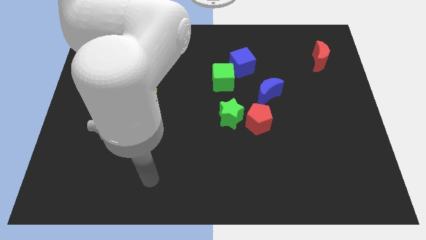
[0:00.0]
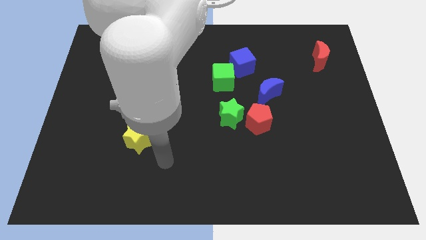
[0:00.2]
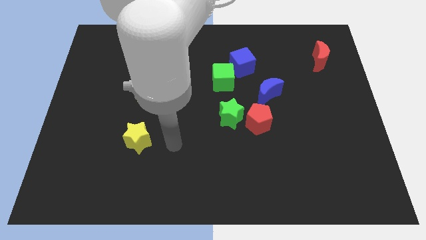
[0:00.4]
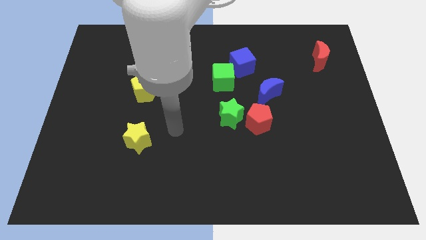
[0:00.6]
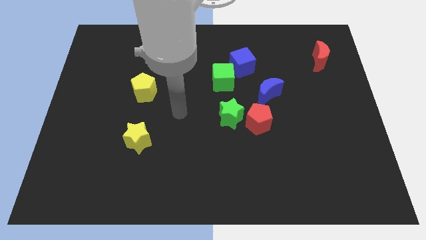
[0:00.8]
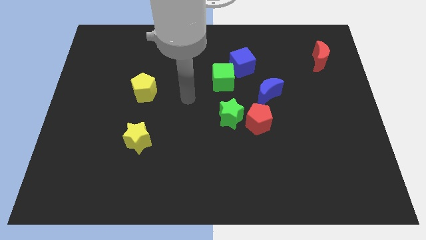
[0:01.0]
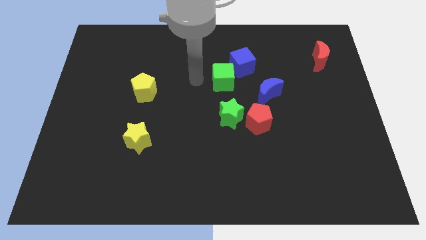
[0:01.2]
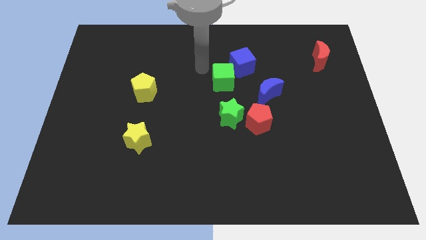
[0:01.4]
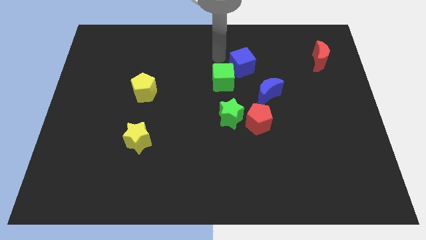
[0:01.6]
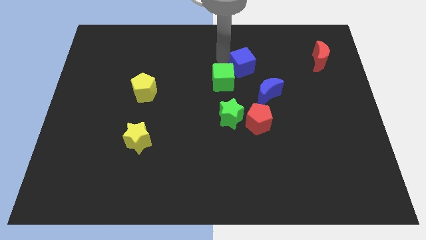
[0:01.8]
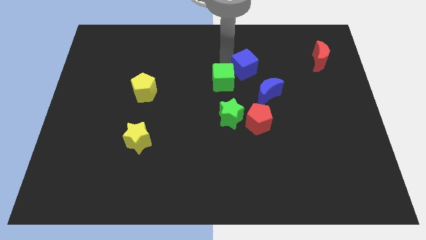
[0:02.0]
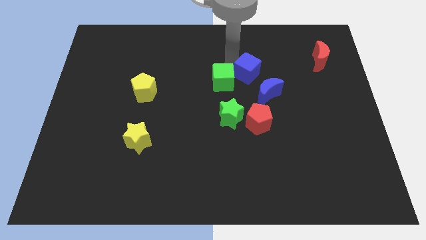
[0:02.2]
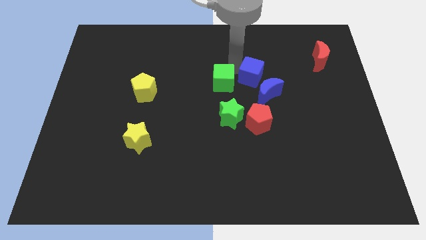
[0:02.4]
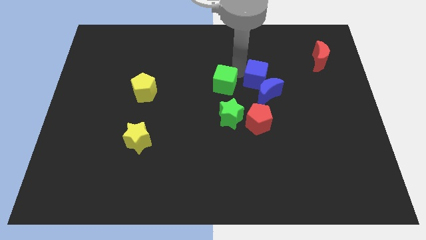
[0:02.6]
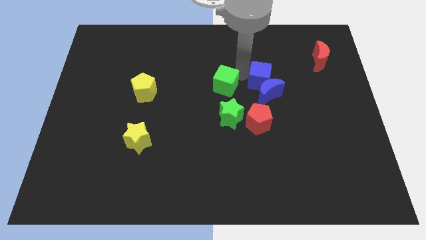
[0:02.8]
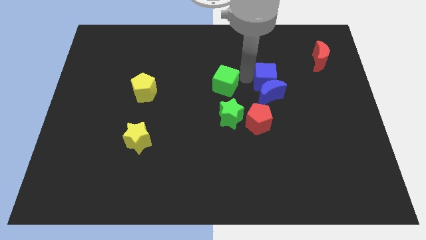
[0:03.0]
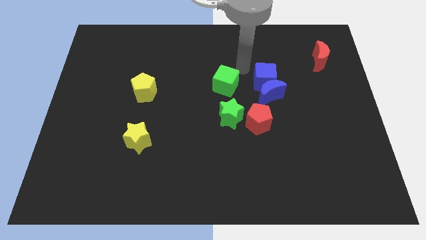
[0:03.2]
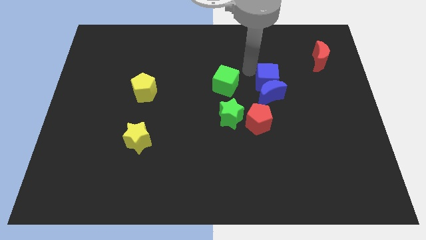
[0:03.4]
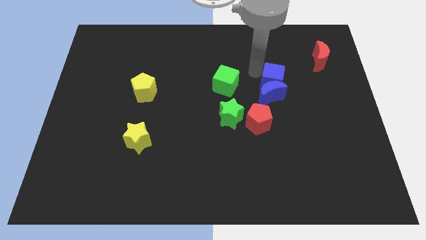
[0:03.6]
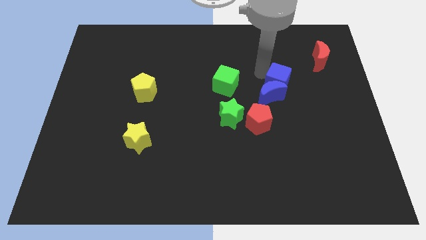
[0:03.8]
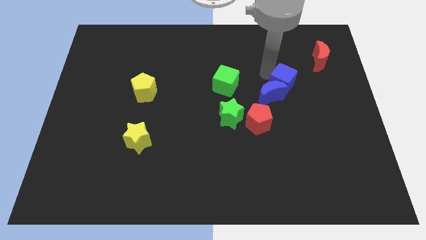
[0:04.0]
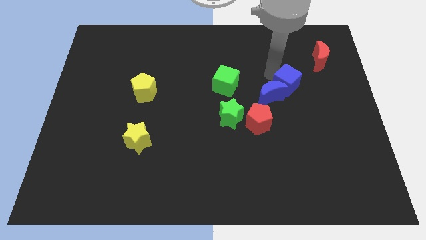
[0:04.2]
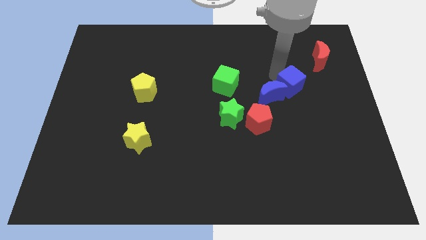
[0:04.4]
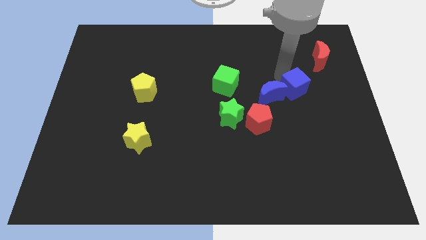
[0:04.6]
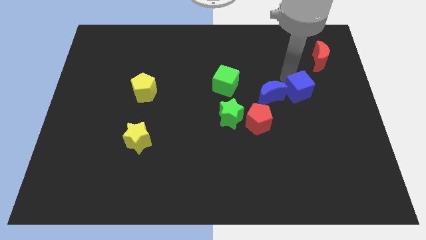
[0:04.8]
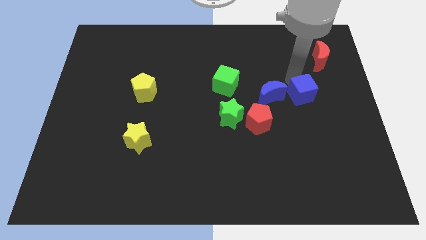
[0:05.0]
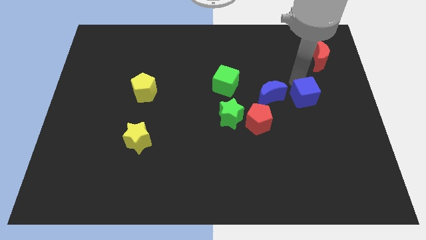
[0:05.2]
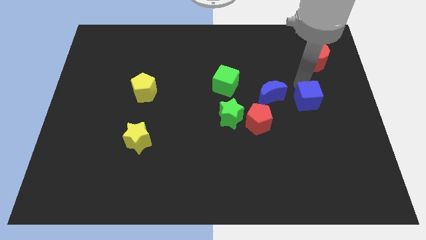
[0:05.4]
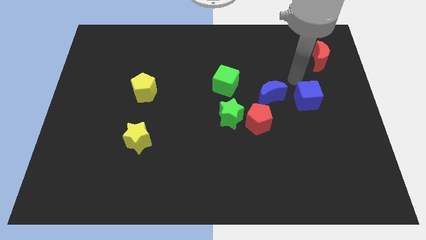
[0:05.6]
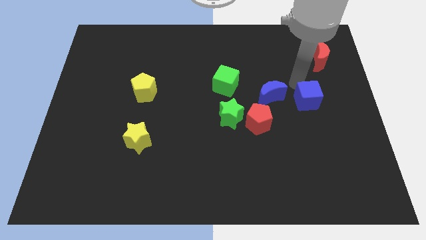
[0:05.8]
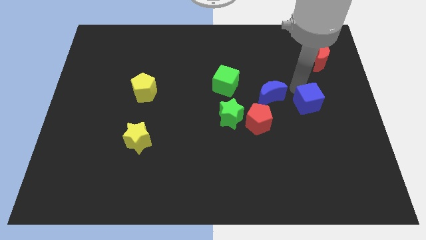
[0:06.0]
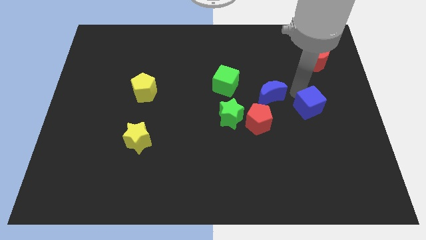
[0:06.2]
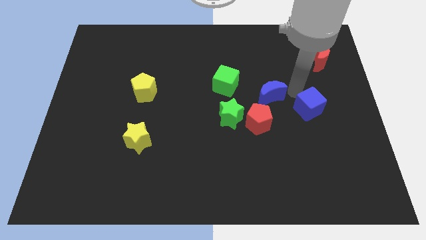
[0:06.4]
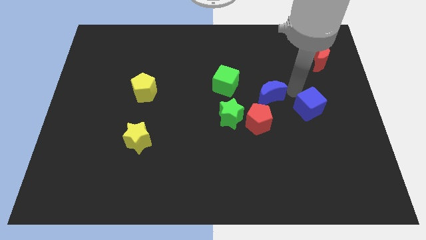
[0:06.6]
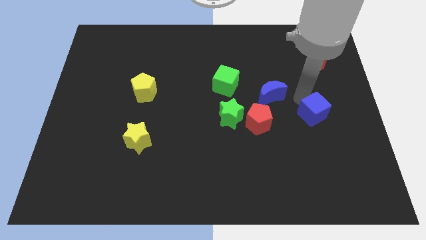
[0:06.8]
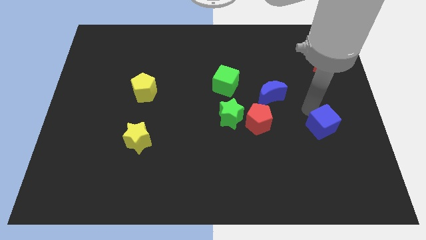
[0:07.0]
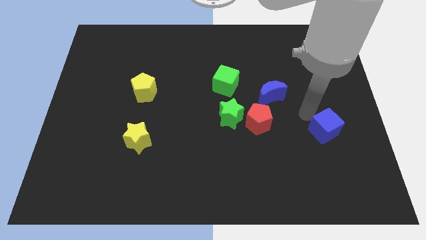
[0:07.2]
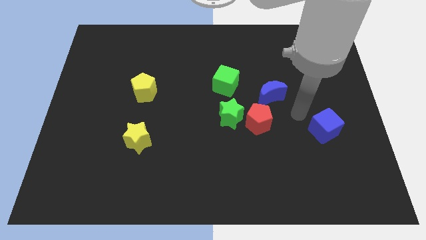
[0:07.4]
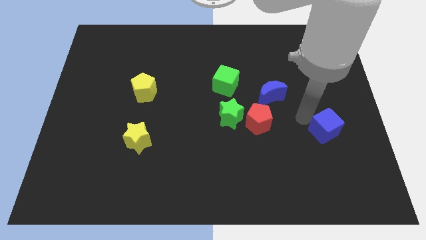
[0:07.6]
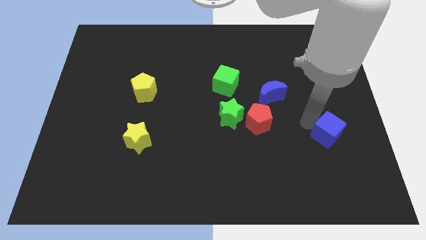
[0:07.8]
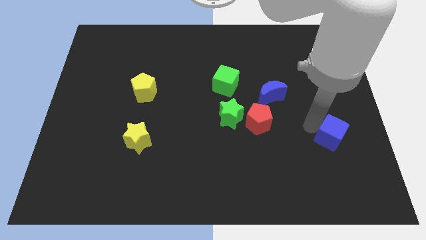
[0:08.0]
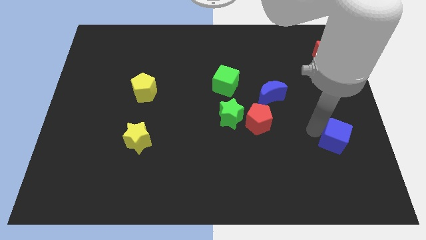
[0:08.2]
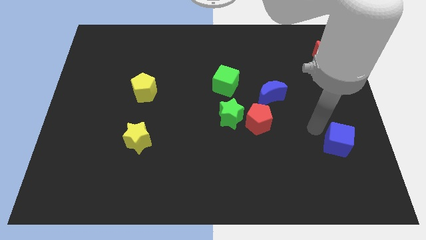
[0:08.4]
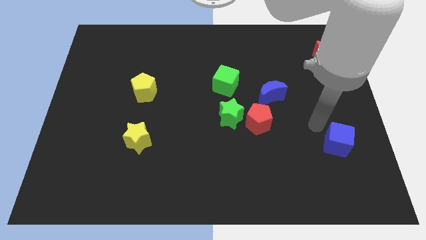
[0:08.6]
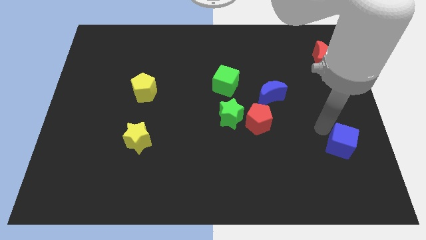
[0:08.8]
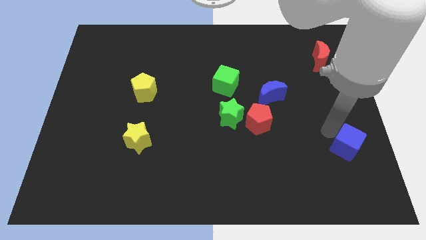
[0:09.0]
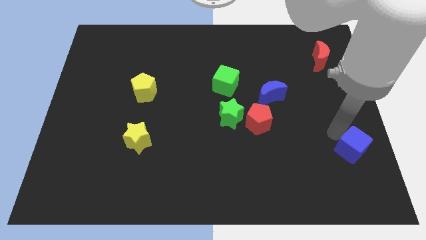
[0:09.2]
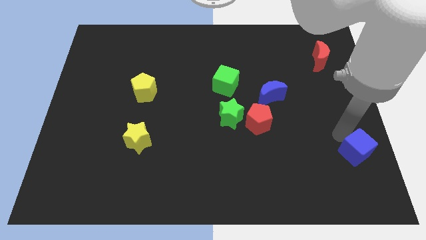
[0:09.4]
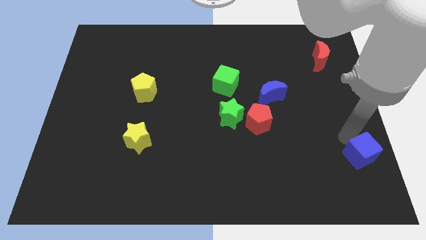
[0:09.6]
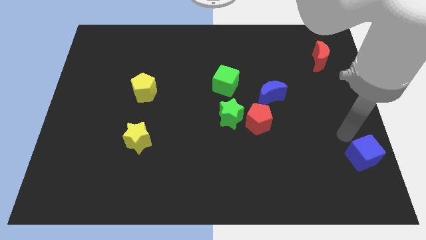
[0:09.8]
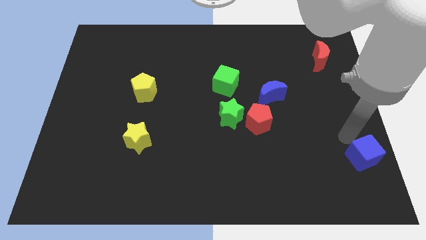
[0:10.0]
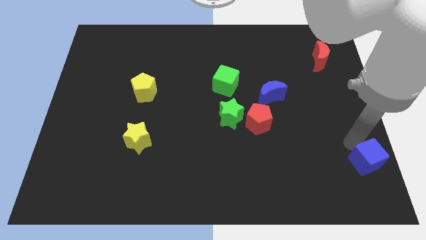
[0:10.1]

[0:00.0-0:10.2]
push the blue cube to the bottom right
